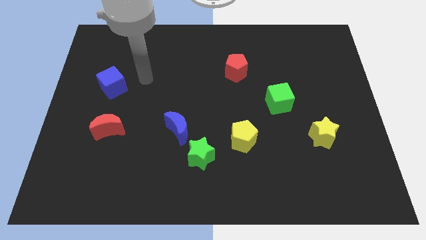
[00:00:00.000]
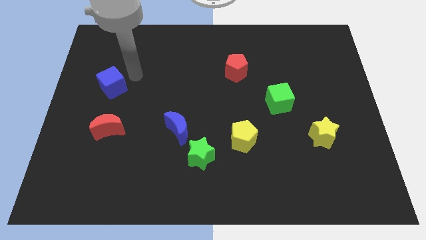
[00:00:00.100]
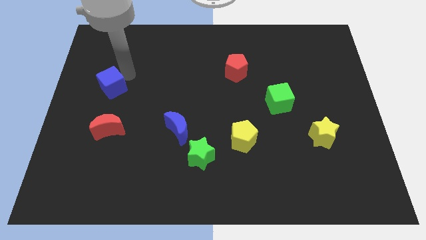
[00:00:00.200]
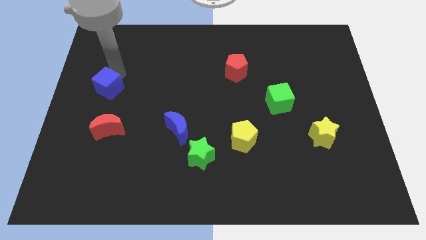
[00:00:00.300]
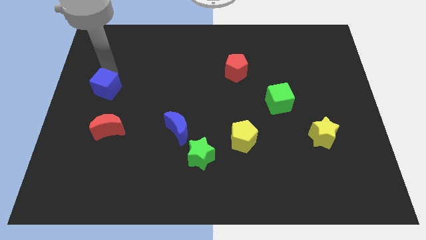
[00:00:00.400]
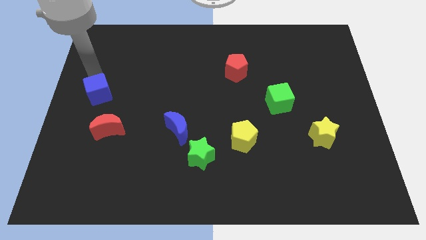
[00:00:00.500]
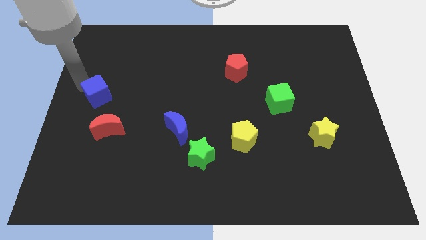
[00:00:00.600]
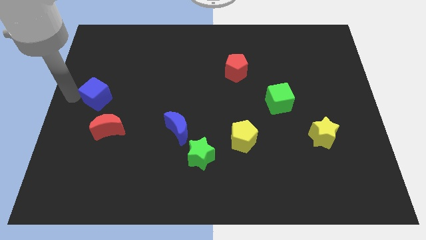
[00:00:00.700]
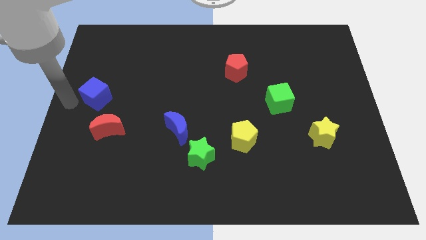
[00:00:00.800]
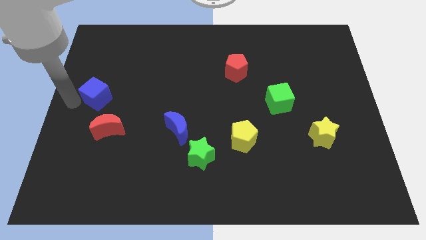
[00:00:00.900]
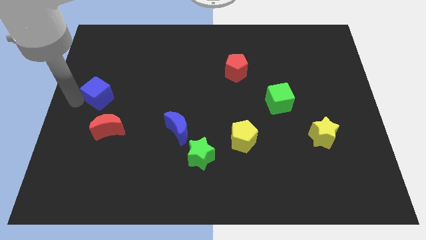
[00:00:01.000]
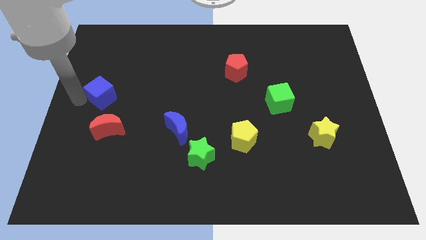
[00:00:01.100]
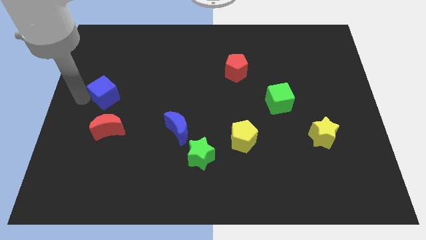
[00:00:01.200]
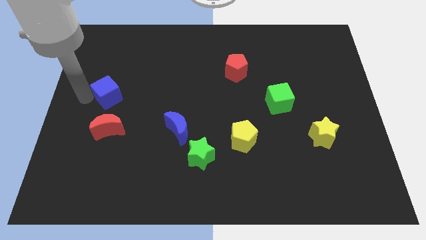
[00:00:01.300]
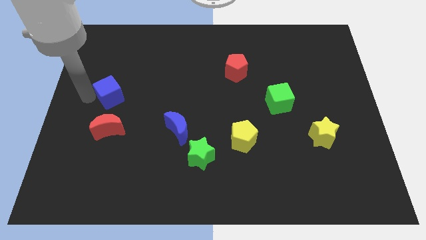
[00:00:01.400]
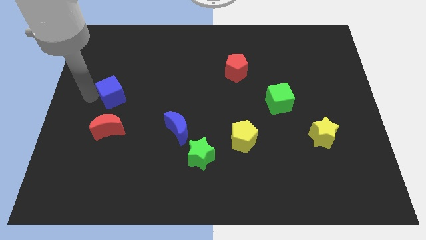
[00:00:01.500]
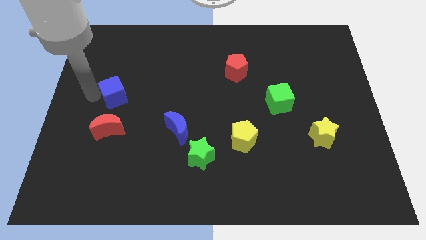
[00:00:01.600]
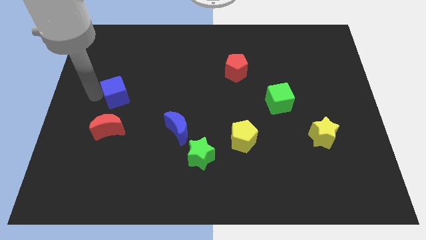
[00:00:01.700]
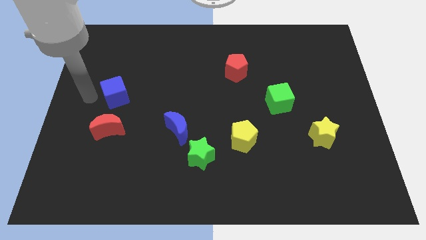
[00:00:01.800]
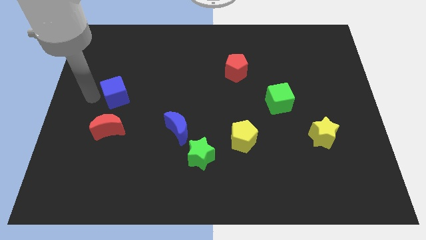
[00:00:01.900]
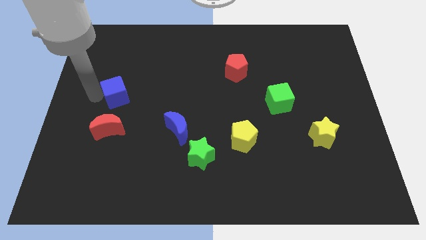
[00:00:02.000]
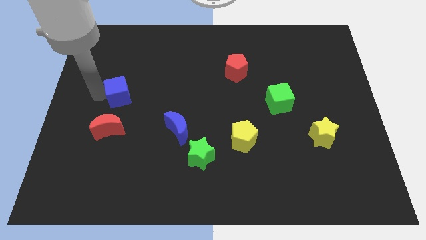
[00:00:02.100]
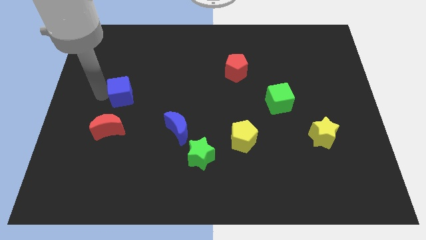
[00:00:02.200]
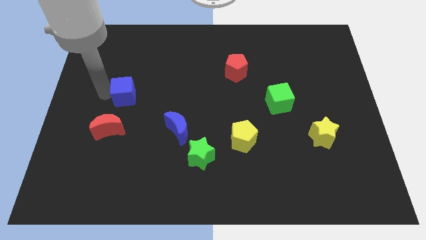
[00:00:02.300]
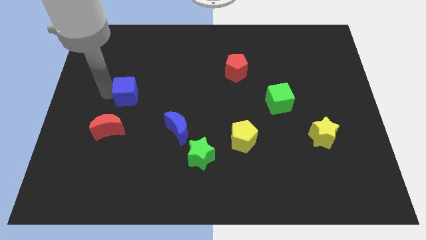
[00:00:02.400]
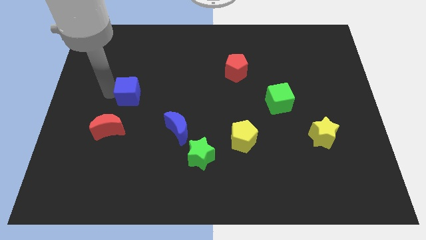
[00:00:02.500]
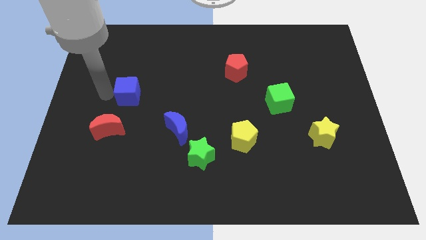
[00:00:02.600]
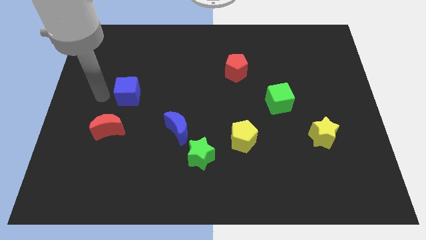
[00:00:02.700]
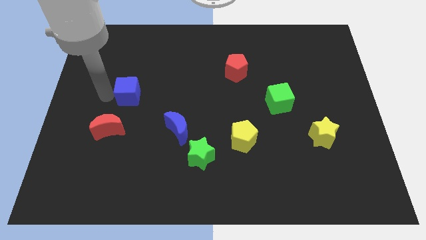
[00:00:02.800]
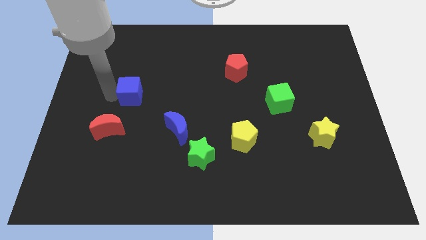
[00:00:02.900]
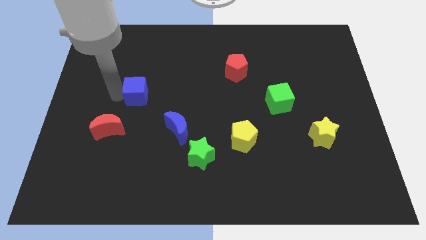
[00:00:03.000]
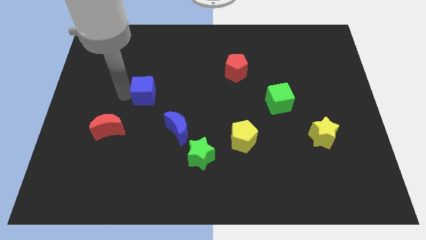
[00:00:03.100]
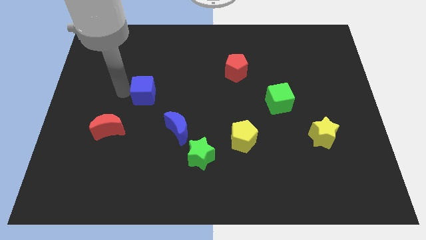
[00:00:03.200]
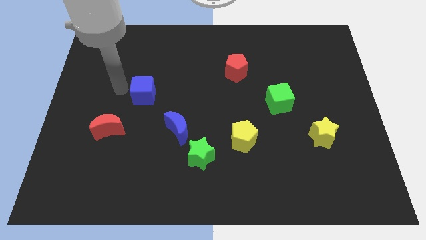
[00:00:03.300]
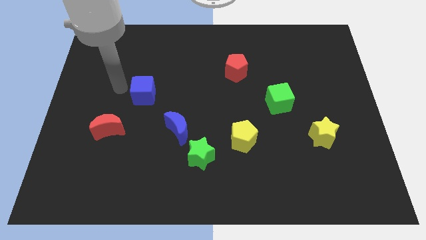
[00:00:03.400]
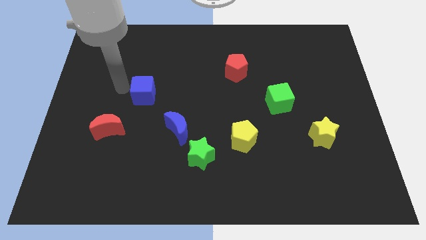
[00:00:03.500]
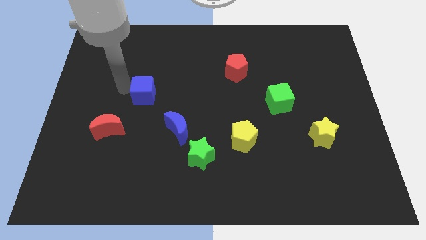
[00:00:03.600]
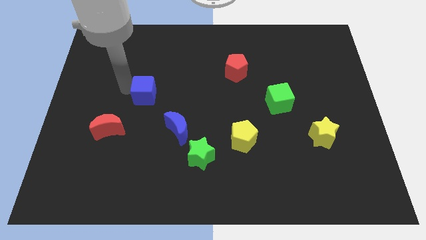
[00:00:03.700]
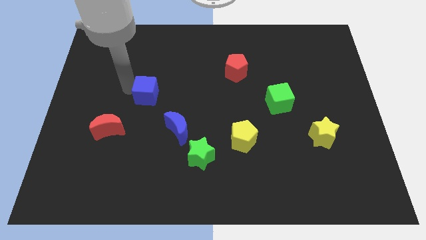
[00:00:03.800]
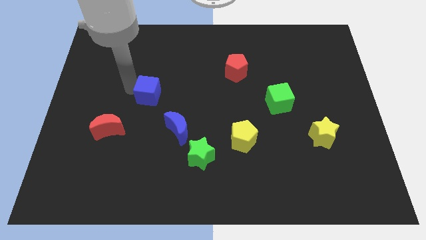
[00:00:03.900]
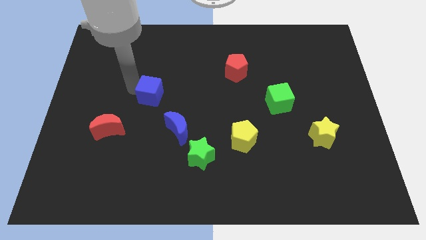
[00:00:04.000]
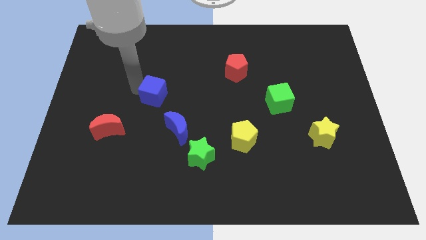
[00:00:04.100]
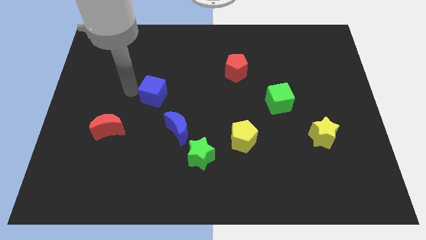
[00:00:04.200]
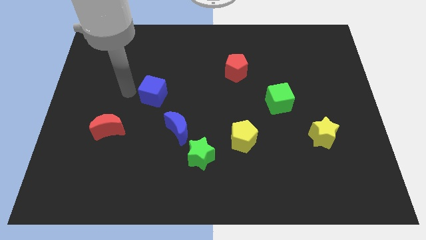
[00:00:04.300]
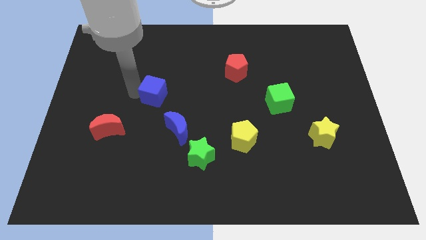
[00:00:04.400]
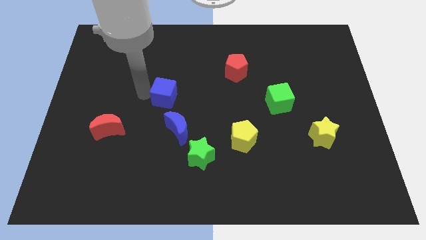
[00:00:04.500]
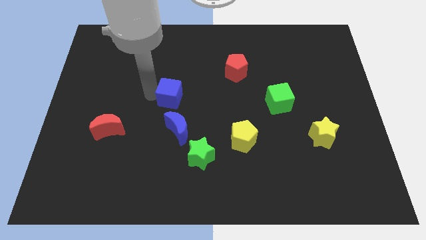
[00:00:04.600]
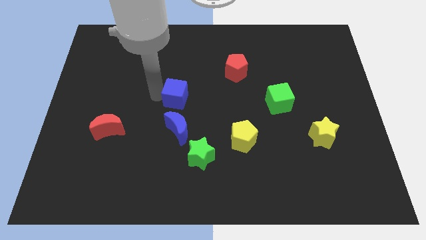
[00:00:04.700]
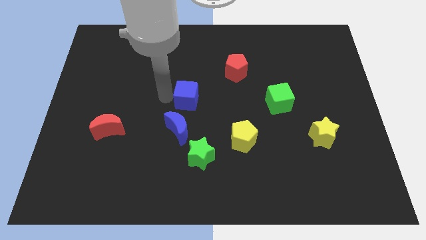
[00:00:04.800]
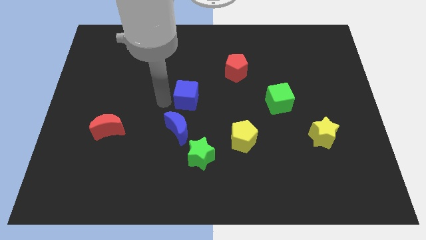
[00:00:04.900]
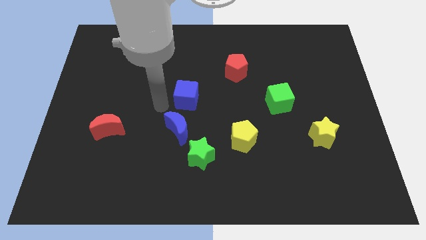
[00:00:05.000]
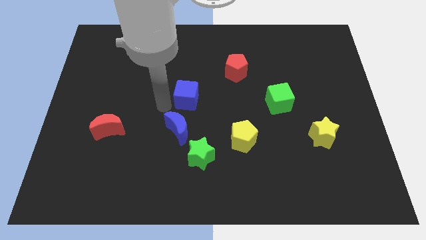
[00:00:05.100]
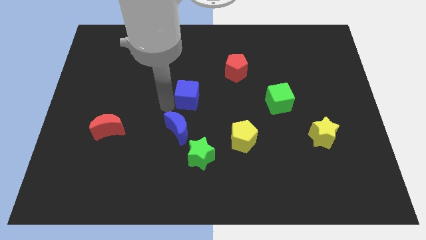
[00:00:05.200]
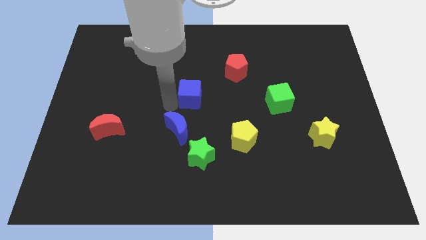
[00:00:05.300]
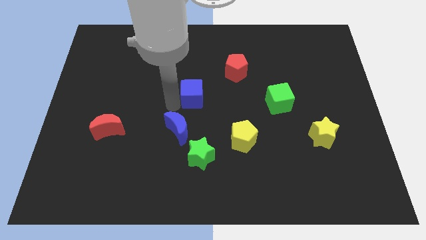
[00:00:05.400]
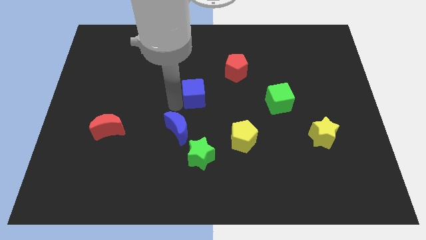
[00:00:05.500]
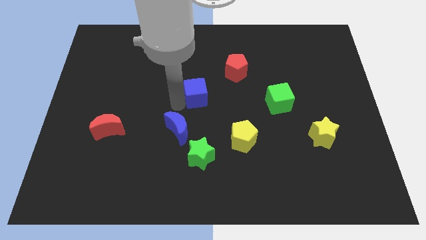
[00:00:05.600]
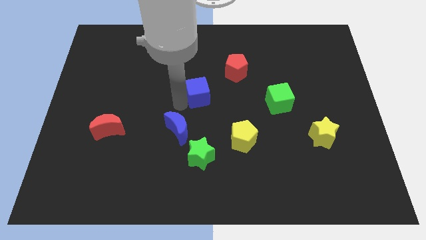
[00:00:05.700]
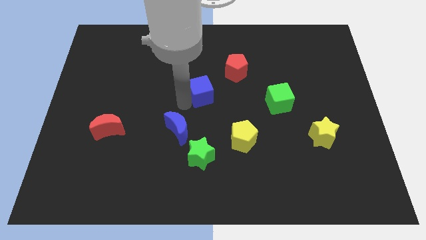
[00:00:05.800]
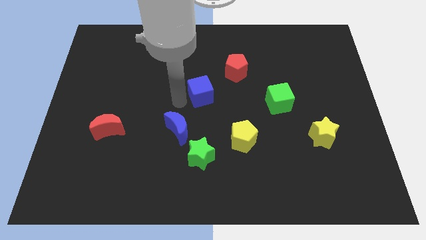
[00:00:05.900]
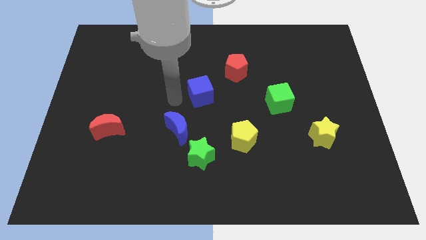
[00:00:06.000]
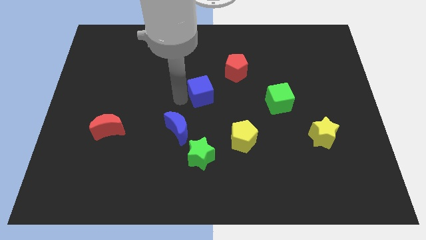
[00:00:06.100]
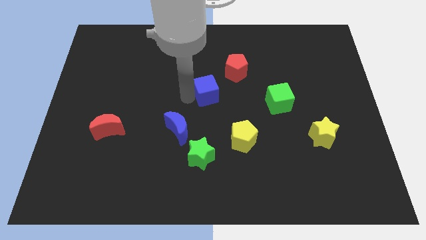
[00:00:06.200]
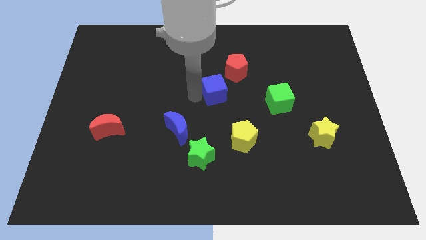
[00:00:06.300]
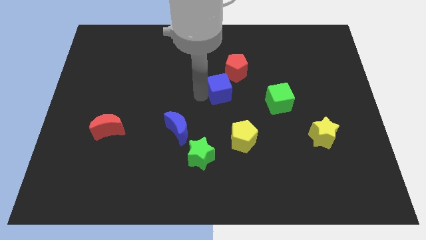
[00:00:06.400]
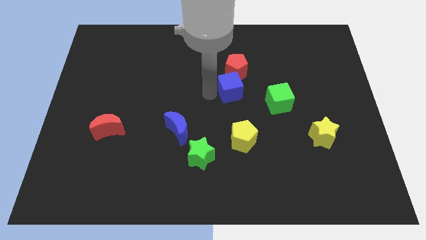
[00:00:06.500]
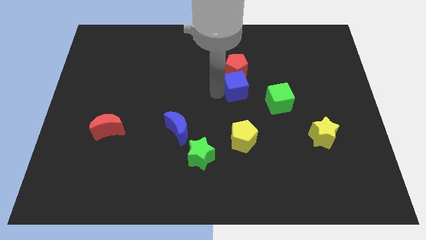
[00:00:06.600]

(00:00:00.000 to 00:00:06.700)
move the blue cube to the bottom right of the red pentagon

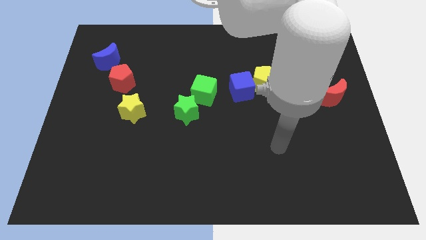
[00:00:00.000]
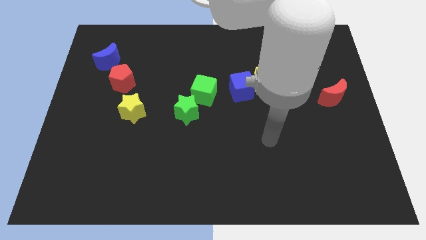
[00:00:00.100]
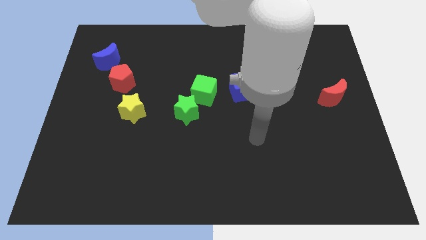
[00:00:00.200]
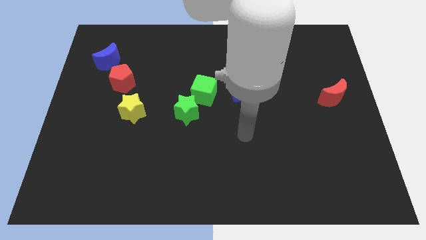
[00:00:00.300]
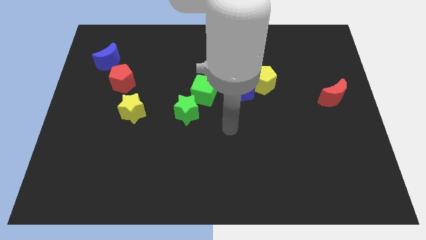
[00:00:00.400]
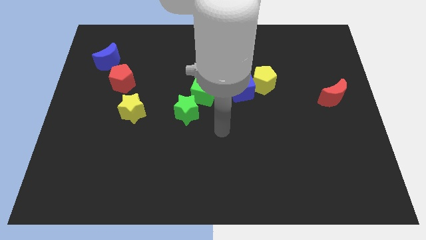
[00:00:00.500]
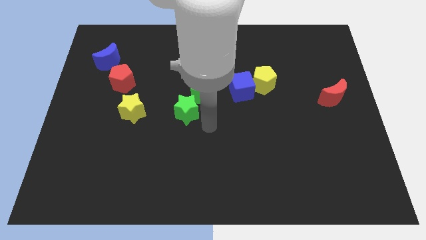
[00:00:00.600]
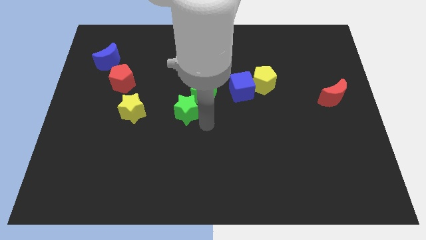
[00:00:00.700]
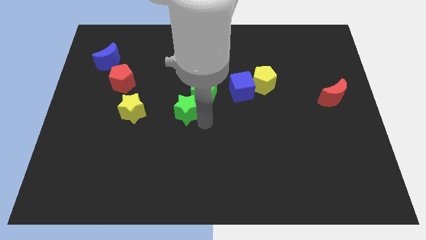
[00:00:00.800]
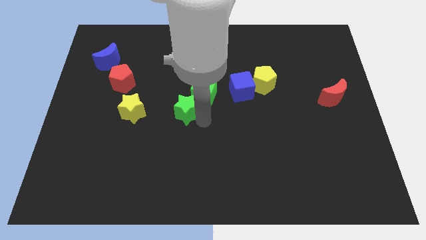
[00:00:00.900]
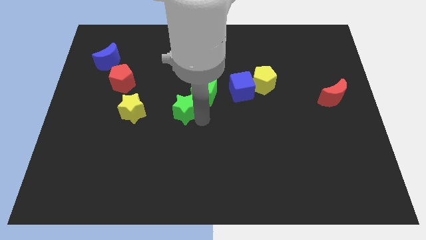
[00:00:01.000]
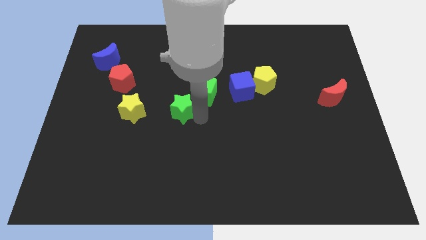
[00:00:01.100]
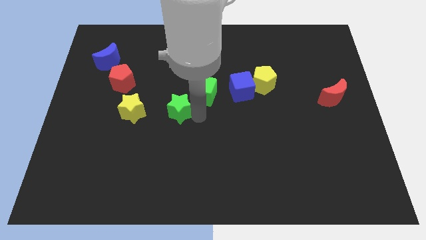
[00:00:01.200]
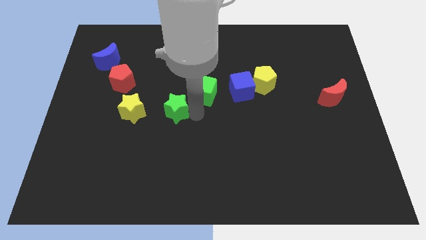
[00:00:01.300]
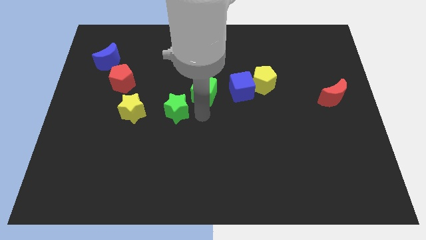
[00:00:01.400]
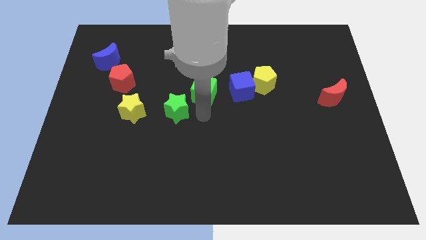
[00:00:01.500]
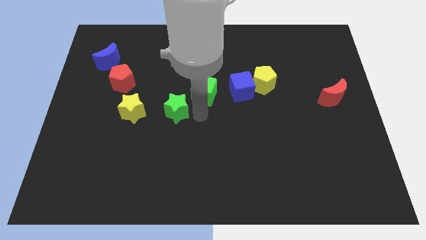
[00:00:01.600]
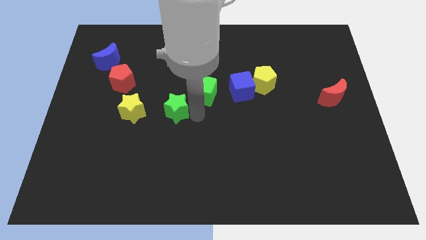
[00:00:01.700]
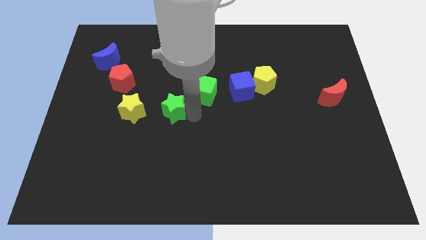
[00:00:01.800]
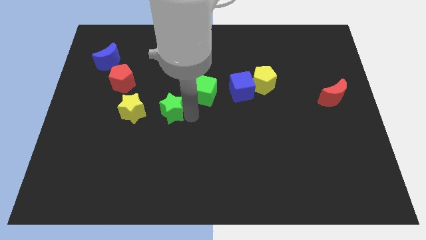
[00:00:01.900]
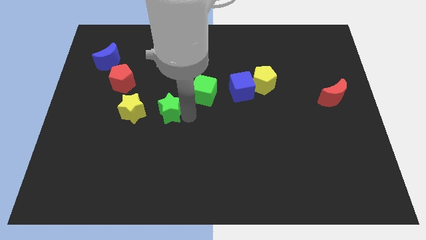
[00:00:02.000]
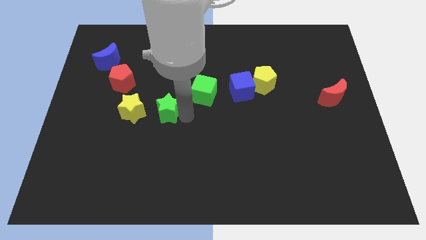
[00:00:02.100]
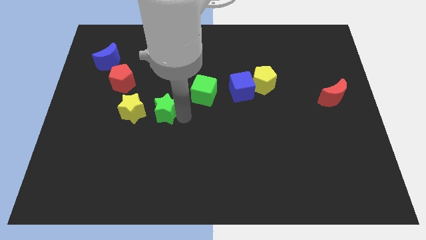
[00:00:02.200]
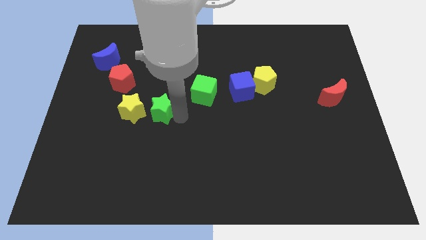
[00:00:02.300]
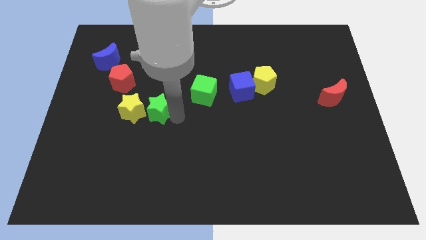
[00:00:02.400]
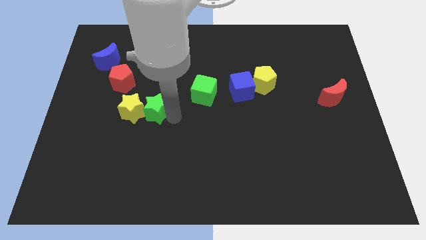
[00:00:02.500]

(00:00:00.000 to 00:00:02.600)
slide the green star diagonally down and to the right of the red pentagon
